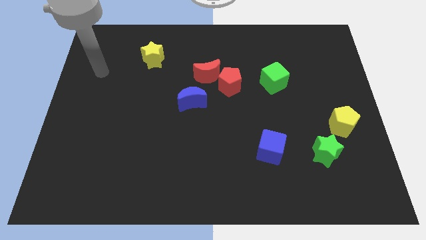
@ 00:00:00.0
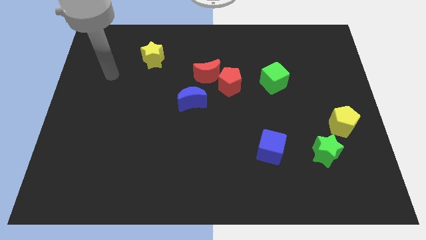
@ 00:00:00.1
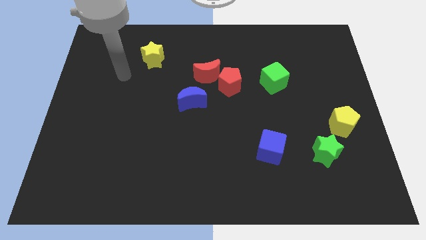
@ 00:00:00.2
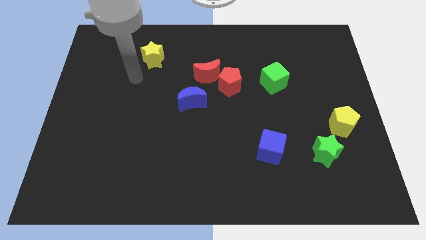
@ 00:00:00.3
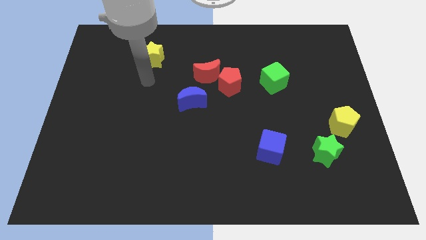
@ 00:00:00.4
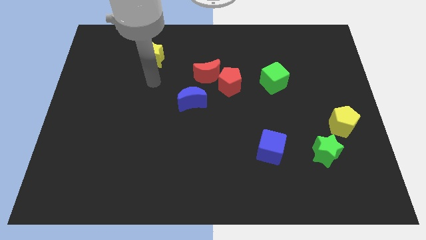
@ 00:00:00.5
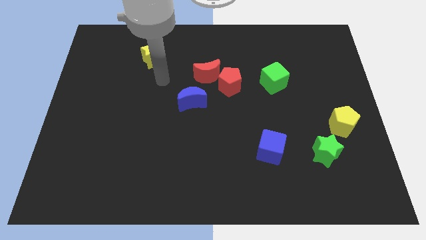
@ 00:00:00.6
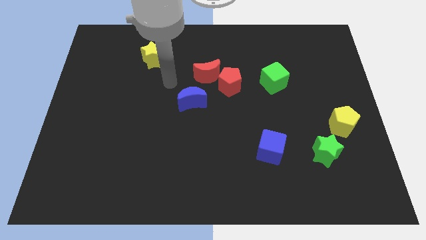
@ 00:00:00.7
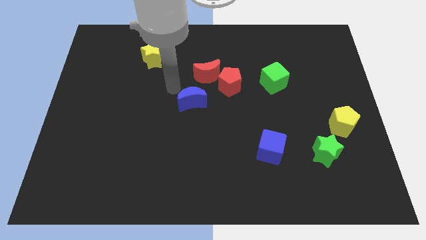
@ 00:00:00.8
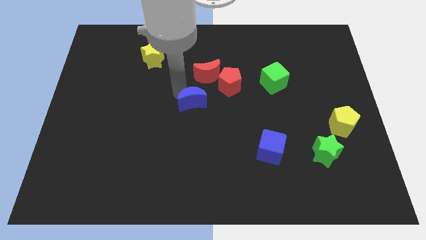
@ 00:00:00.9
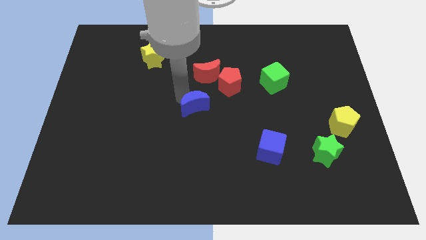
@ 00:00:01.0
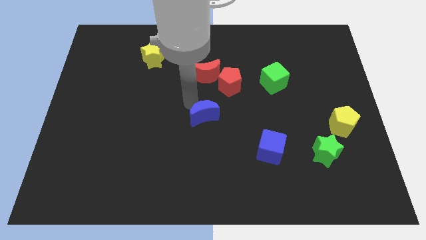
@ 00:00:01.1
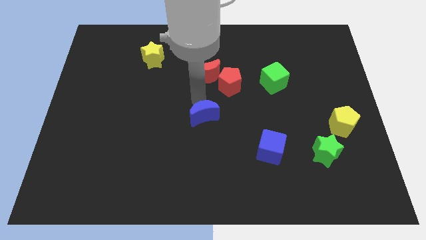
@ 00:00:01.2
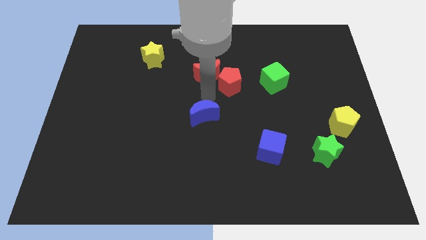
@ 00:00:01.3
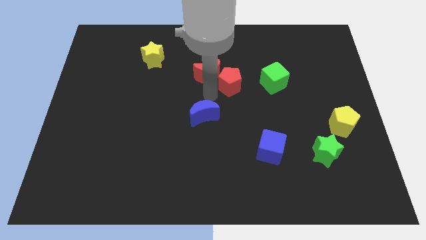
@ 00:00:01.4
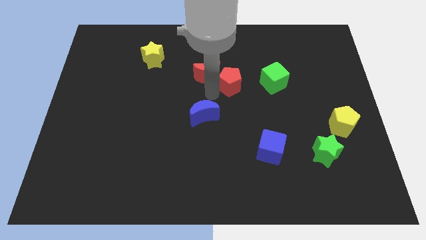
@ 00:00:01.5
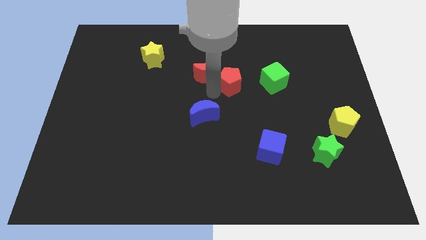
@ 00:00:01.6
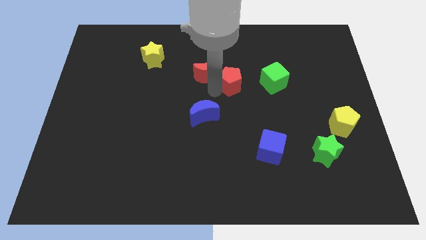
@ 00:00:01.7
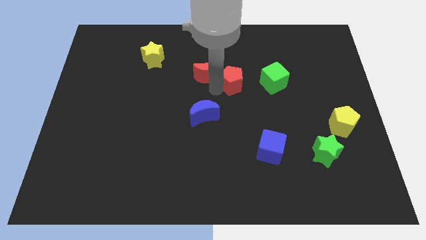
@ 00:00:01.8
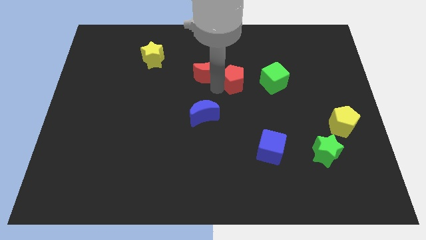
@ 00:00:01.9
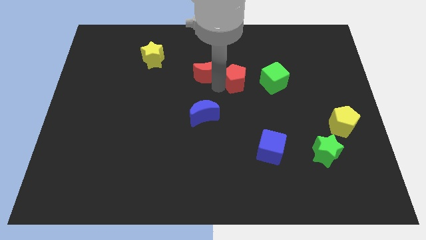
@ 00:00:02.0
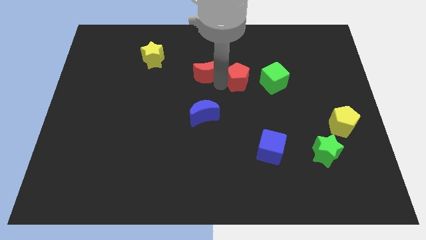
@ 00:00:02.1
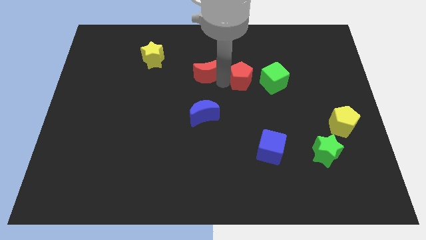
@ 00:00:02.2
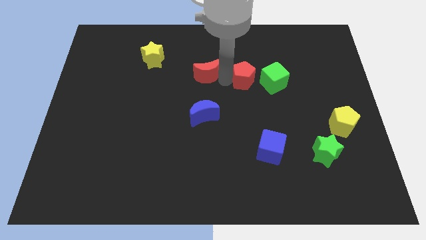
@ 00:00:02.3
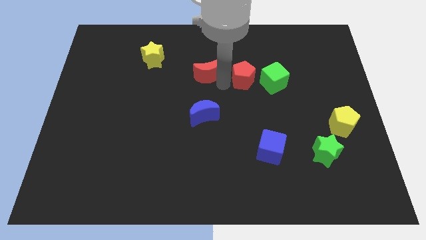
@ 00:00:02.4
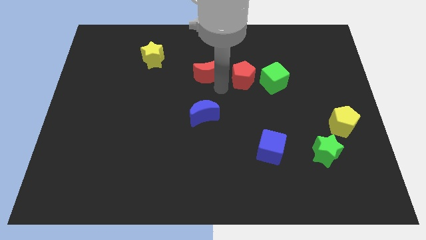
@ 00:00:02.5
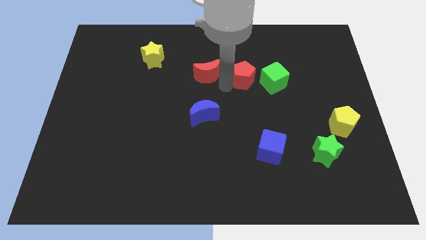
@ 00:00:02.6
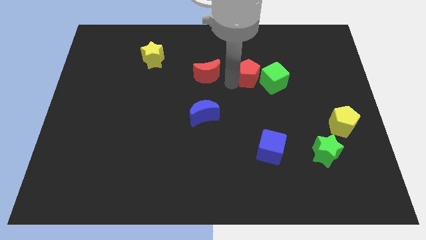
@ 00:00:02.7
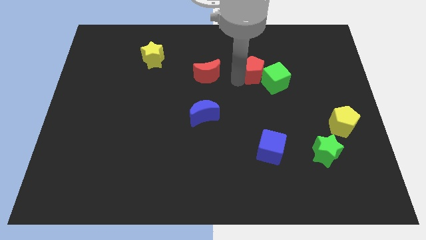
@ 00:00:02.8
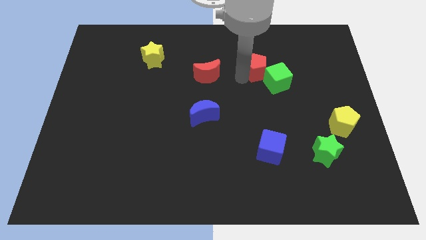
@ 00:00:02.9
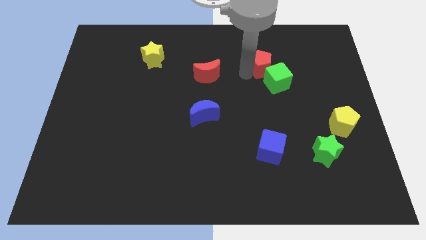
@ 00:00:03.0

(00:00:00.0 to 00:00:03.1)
push the red pentagon a little bit to the right

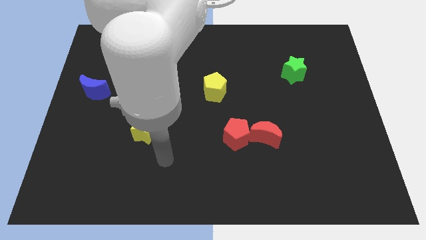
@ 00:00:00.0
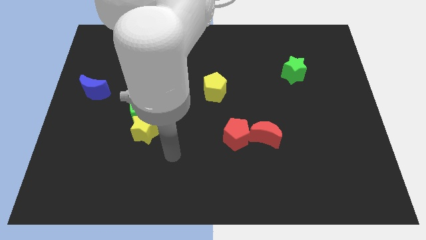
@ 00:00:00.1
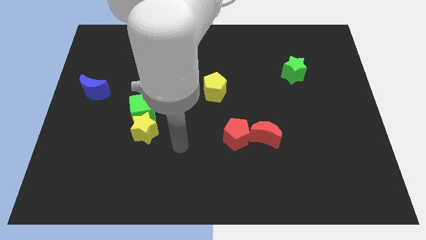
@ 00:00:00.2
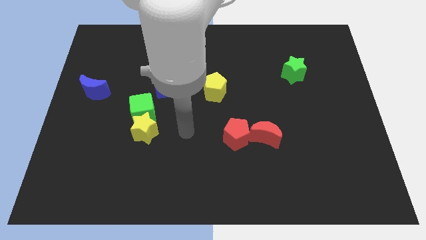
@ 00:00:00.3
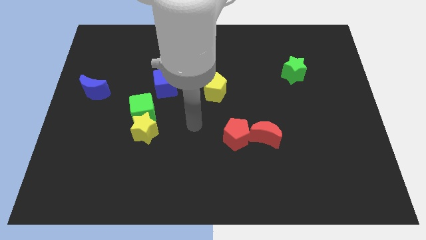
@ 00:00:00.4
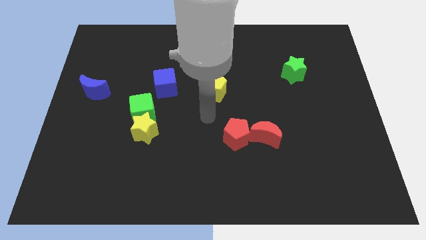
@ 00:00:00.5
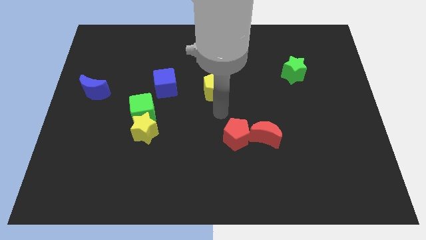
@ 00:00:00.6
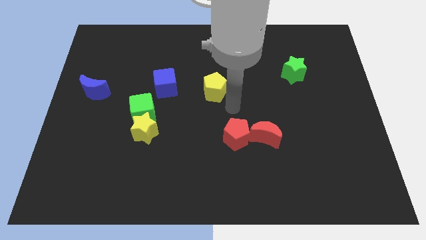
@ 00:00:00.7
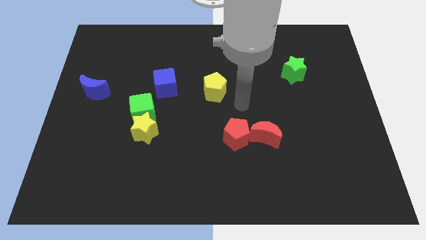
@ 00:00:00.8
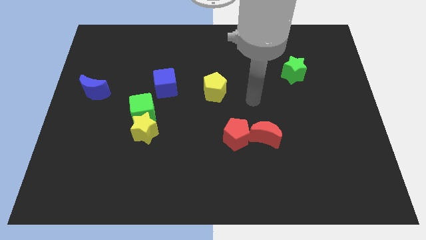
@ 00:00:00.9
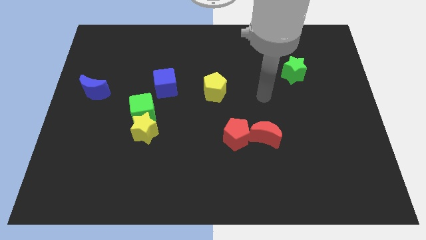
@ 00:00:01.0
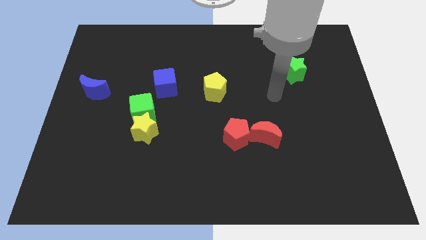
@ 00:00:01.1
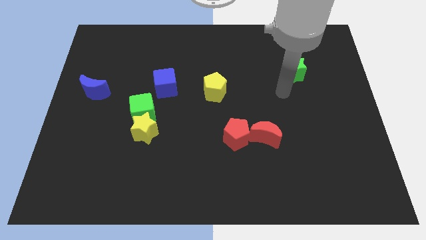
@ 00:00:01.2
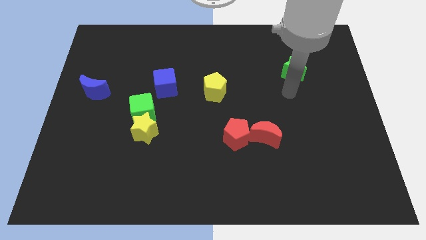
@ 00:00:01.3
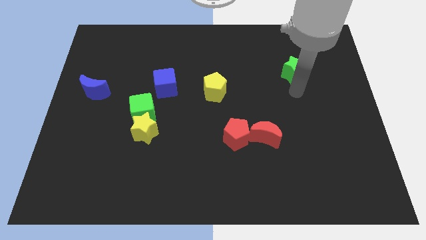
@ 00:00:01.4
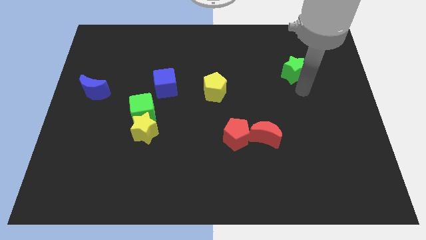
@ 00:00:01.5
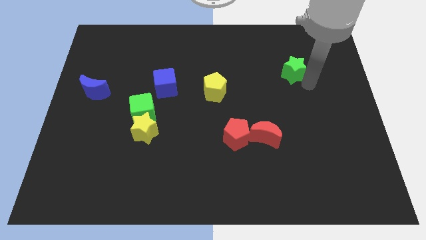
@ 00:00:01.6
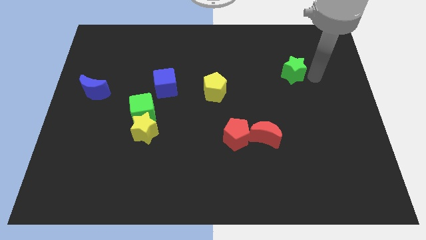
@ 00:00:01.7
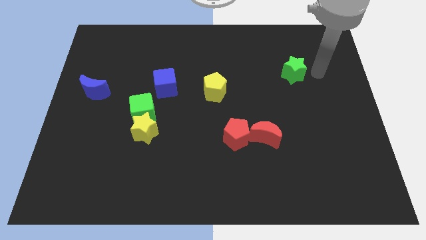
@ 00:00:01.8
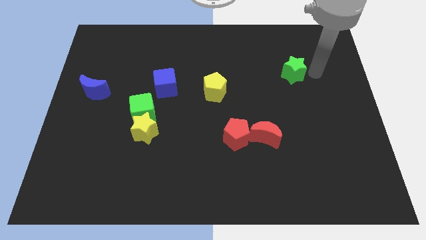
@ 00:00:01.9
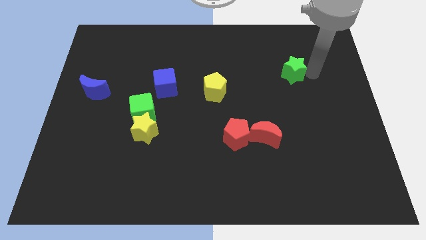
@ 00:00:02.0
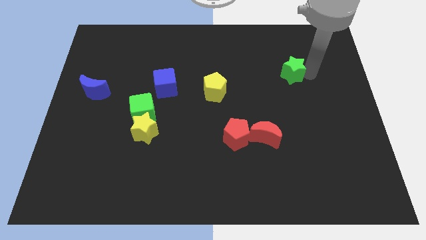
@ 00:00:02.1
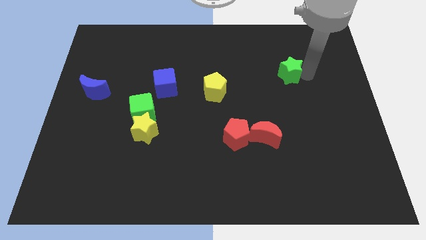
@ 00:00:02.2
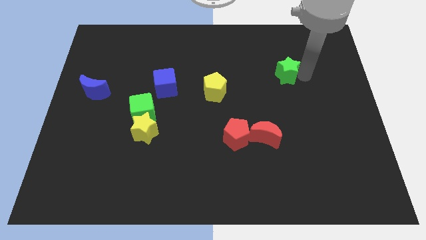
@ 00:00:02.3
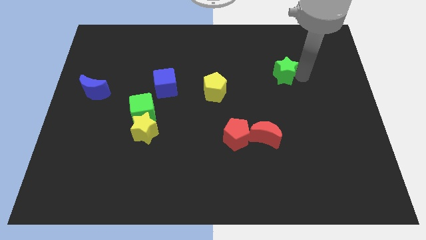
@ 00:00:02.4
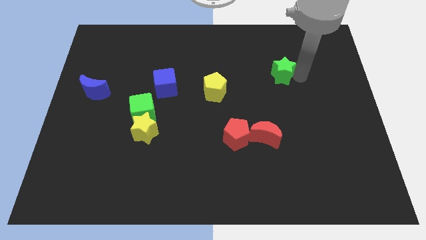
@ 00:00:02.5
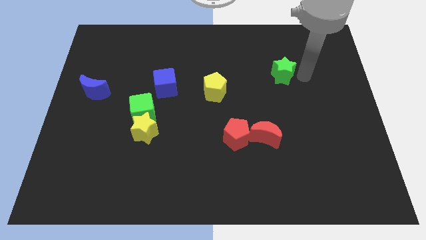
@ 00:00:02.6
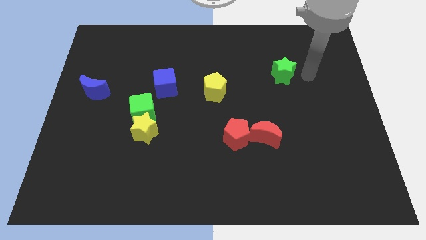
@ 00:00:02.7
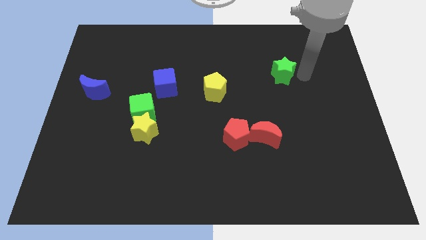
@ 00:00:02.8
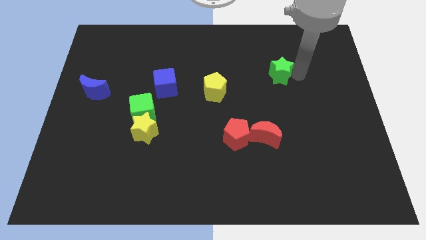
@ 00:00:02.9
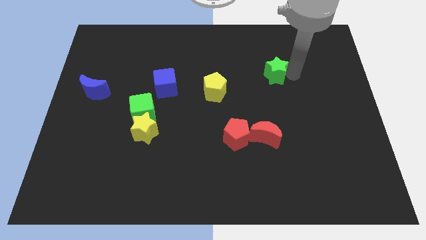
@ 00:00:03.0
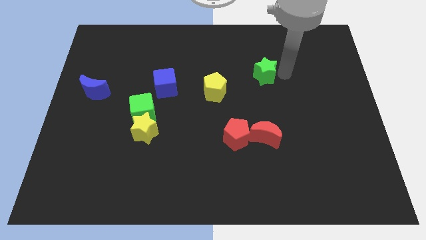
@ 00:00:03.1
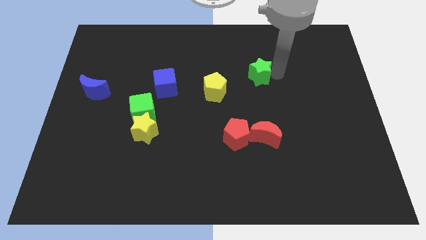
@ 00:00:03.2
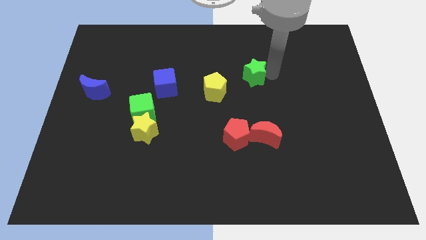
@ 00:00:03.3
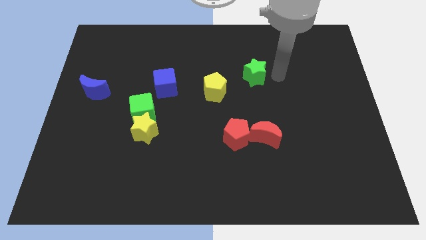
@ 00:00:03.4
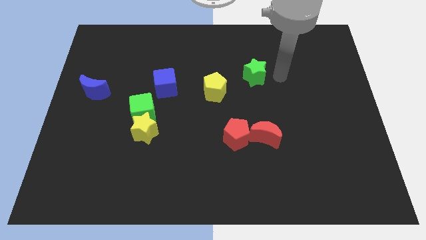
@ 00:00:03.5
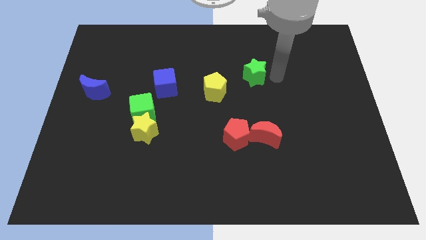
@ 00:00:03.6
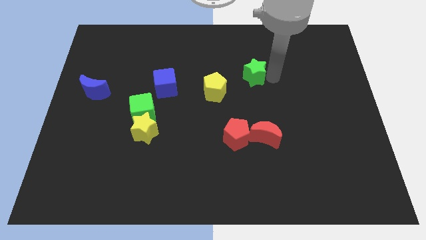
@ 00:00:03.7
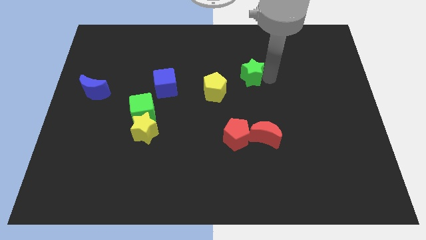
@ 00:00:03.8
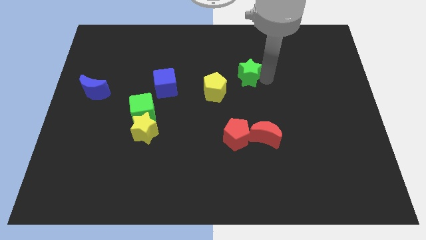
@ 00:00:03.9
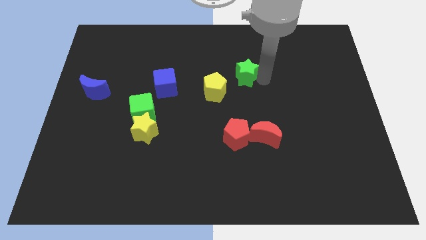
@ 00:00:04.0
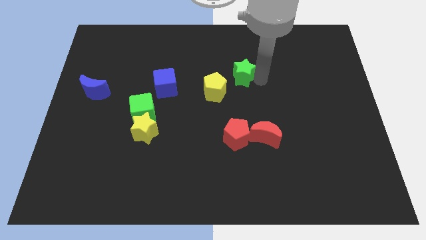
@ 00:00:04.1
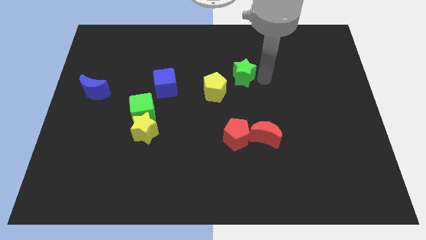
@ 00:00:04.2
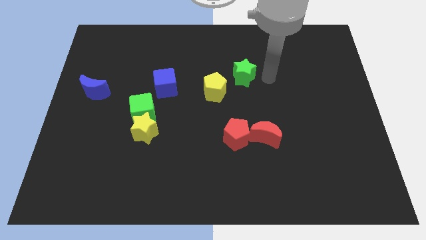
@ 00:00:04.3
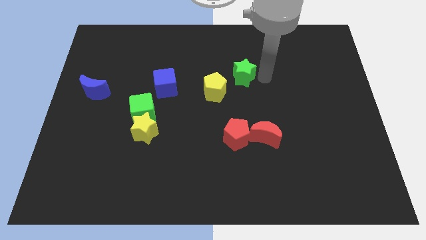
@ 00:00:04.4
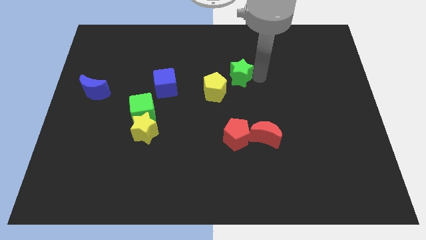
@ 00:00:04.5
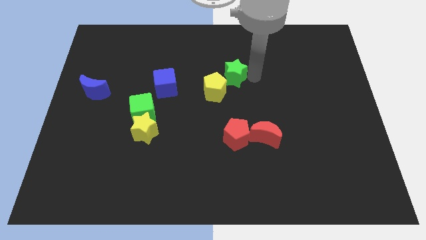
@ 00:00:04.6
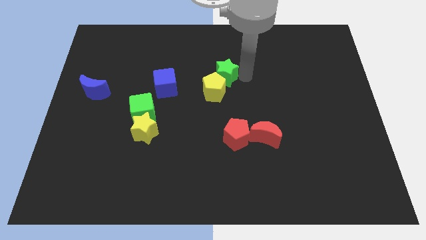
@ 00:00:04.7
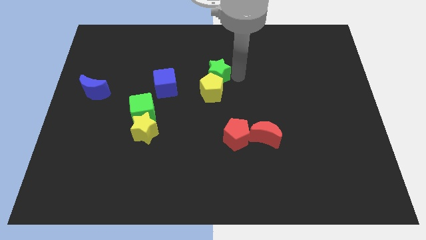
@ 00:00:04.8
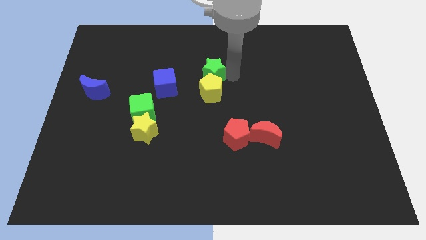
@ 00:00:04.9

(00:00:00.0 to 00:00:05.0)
slide the green star left
